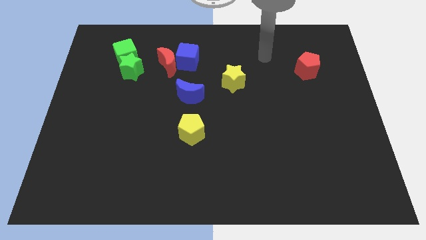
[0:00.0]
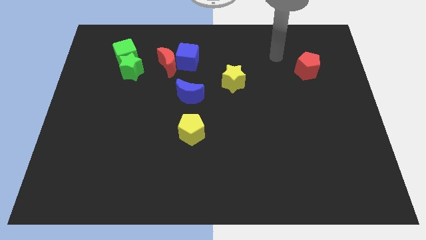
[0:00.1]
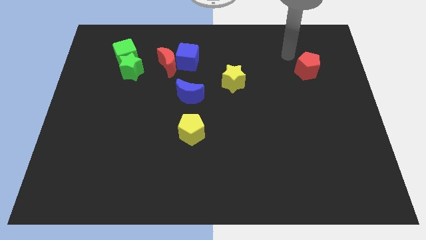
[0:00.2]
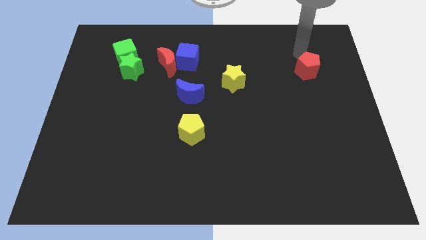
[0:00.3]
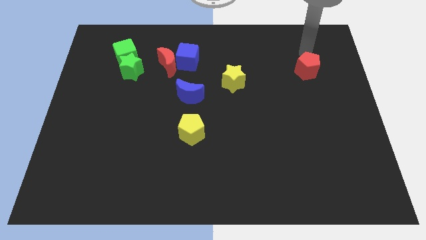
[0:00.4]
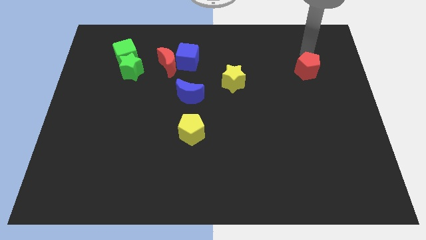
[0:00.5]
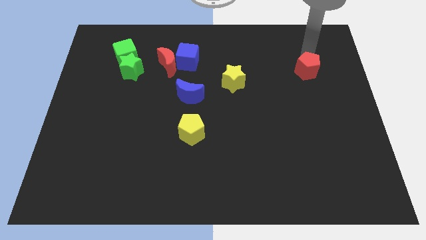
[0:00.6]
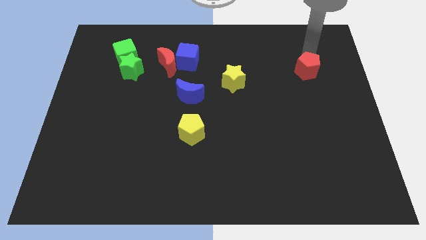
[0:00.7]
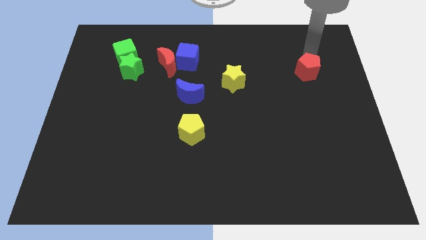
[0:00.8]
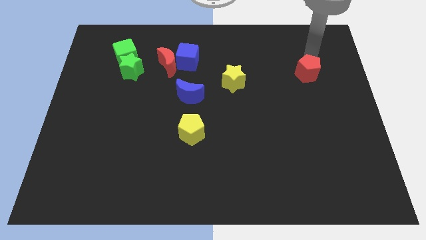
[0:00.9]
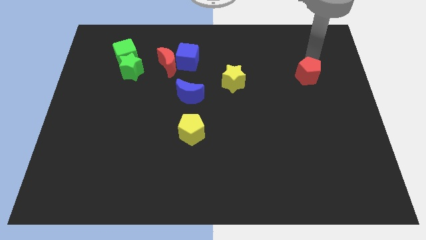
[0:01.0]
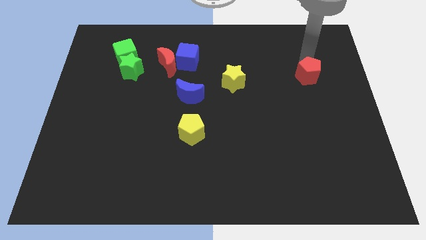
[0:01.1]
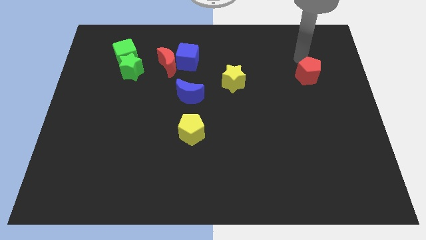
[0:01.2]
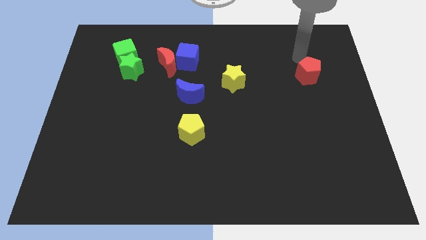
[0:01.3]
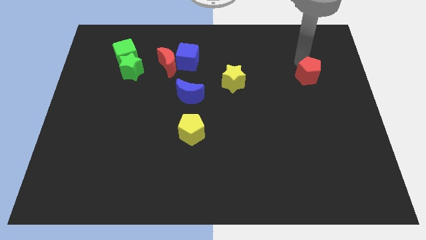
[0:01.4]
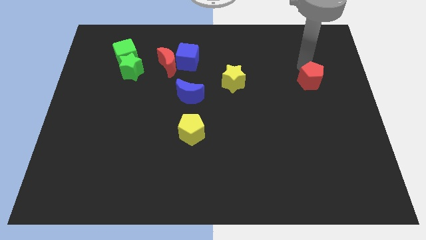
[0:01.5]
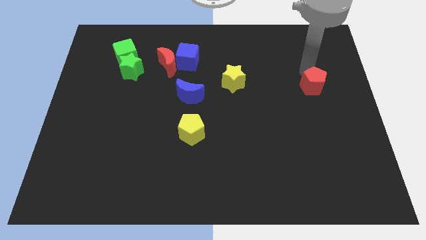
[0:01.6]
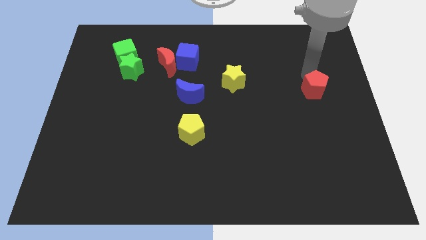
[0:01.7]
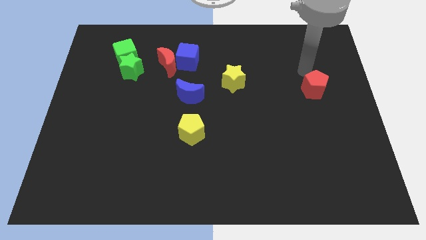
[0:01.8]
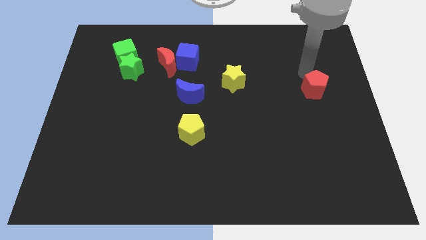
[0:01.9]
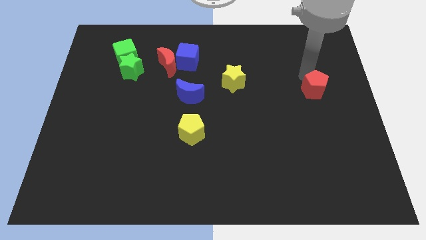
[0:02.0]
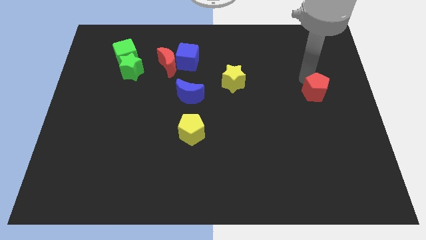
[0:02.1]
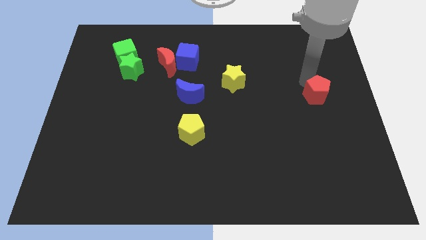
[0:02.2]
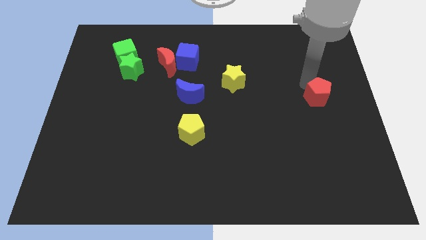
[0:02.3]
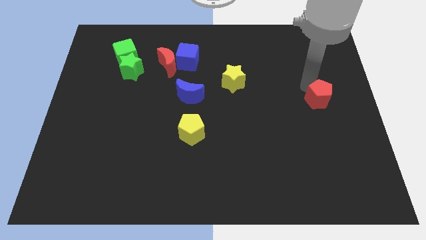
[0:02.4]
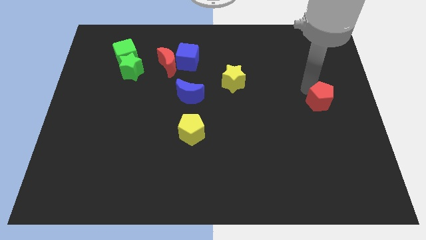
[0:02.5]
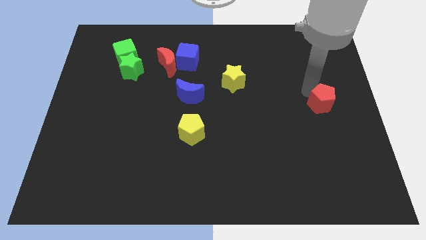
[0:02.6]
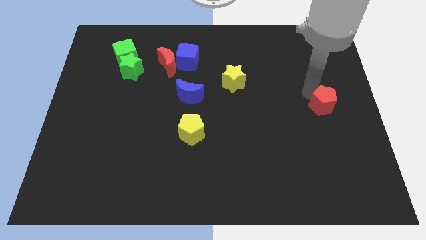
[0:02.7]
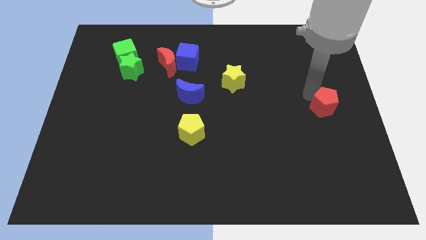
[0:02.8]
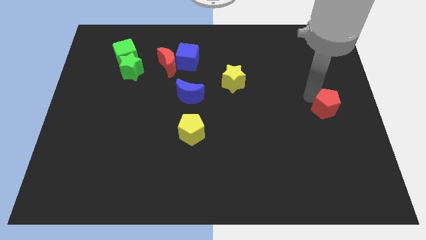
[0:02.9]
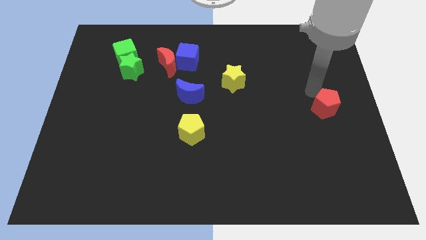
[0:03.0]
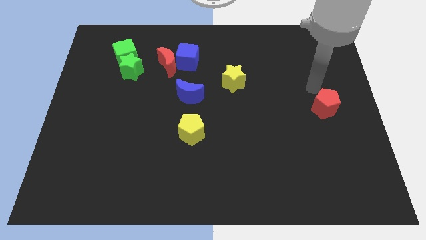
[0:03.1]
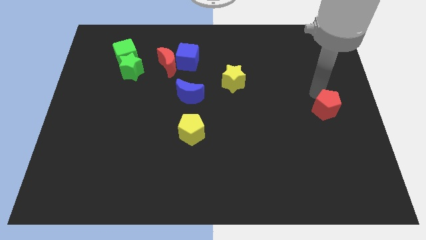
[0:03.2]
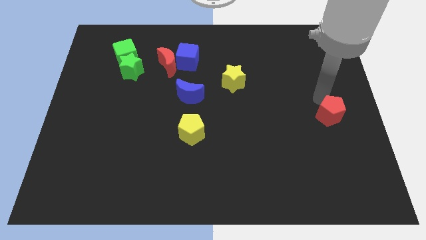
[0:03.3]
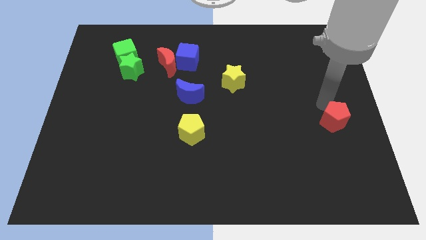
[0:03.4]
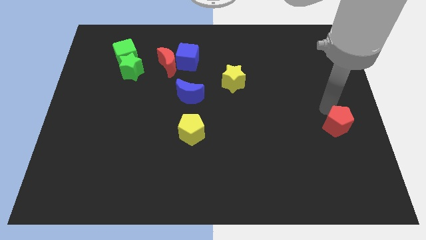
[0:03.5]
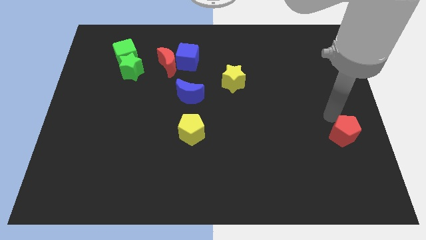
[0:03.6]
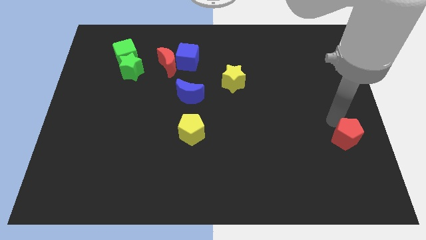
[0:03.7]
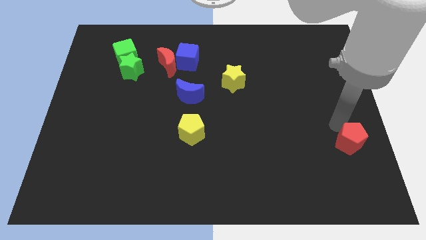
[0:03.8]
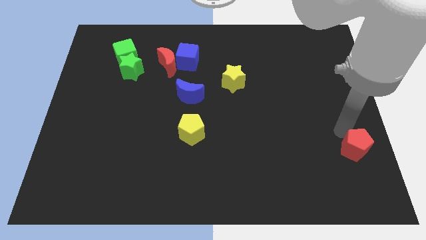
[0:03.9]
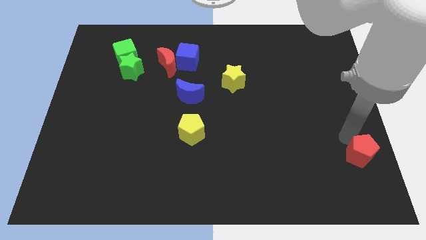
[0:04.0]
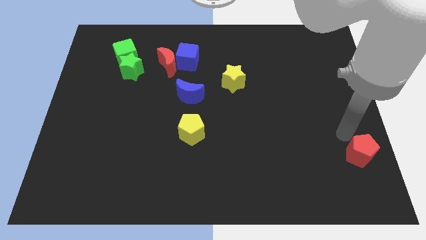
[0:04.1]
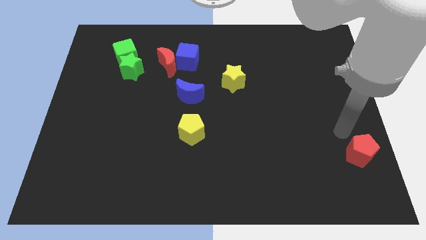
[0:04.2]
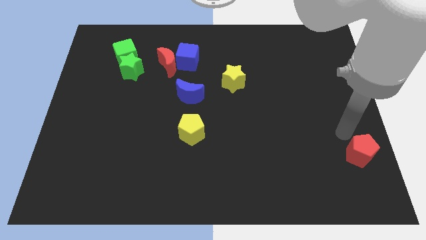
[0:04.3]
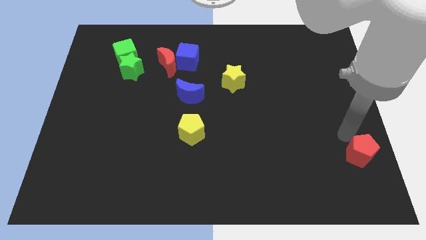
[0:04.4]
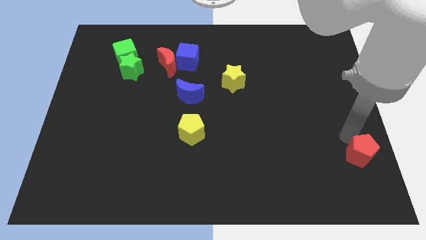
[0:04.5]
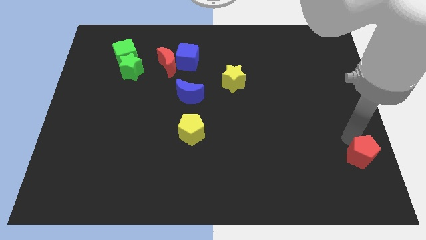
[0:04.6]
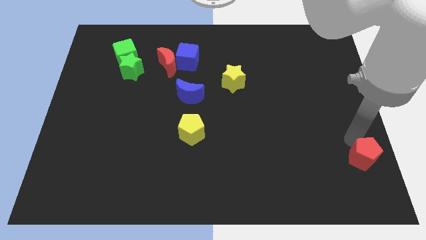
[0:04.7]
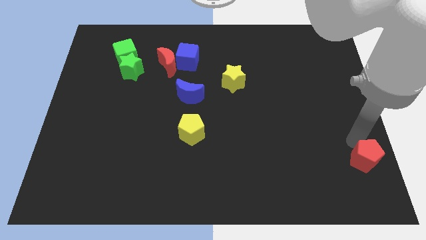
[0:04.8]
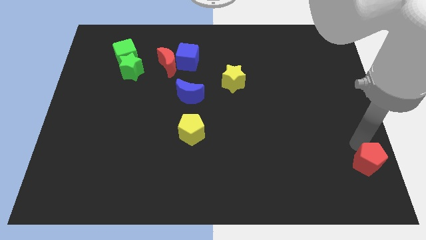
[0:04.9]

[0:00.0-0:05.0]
put the red pentagon to the bottom right of the board

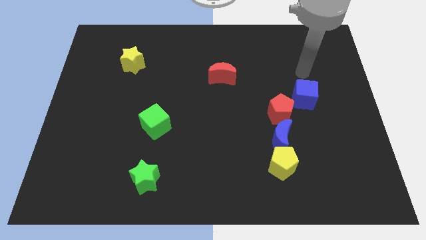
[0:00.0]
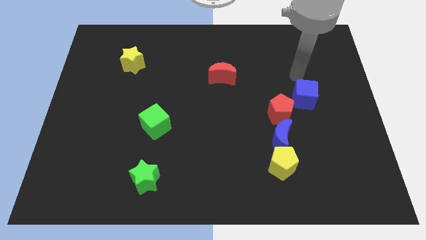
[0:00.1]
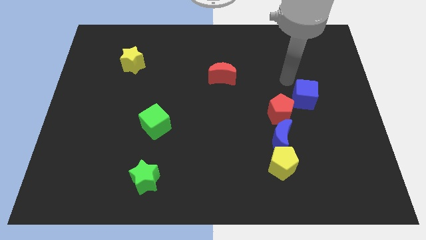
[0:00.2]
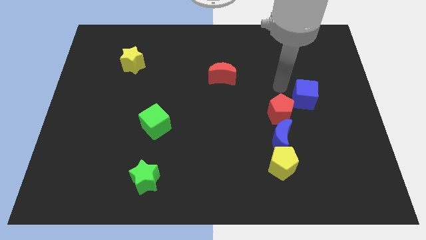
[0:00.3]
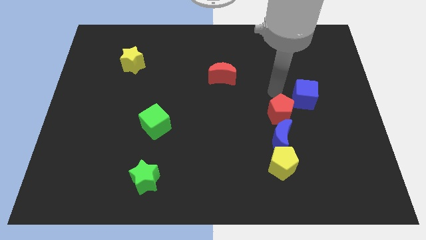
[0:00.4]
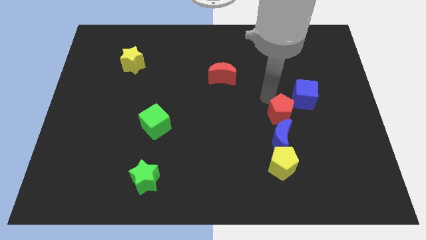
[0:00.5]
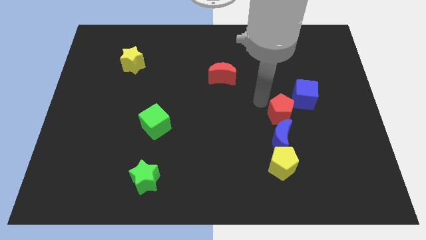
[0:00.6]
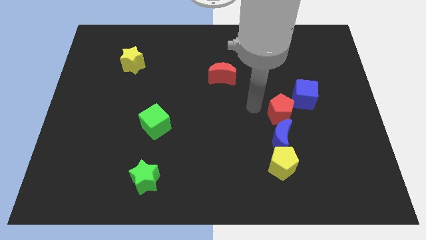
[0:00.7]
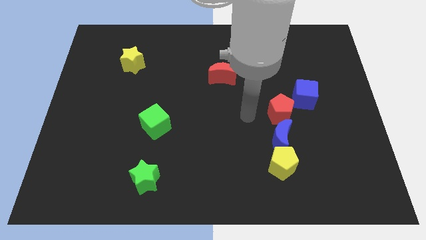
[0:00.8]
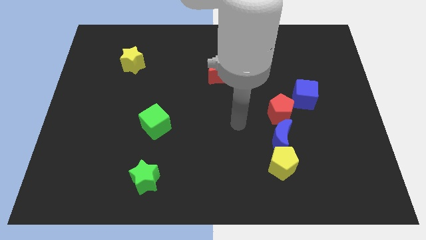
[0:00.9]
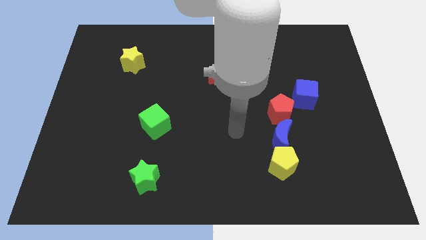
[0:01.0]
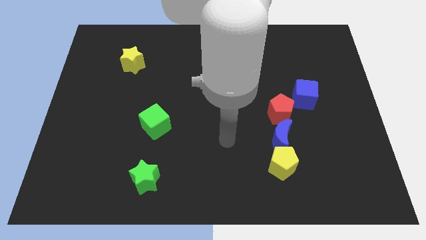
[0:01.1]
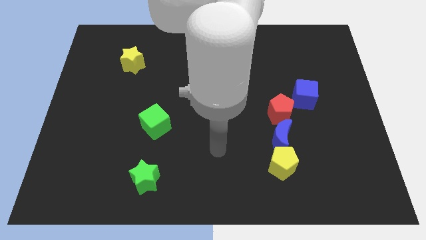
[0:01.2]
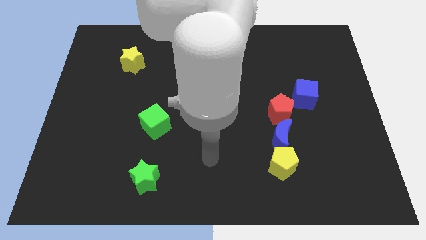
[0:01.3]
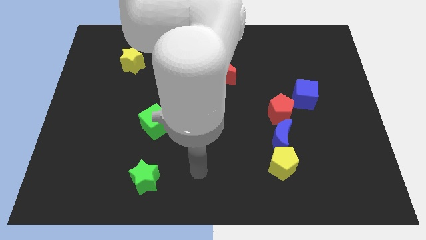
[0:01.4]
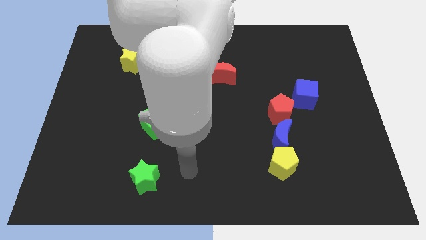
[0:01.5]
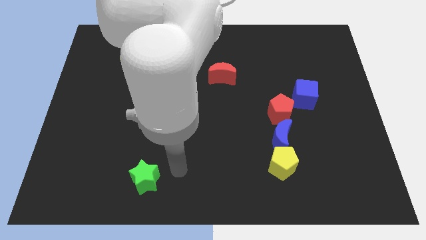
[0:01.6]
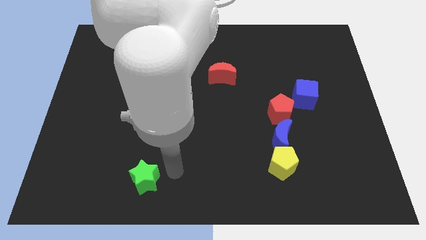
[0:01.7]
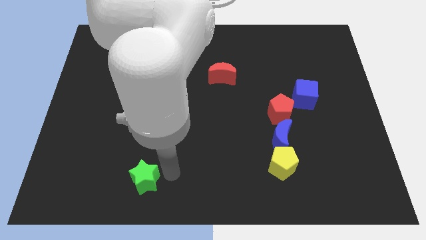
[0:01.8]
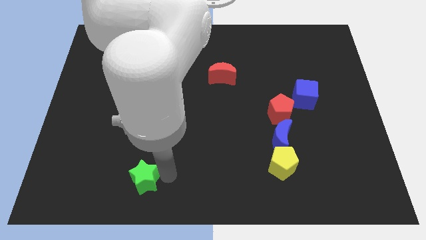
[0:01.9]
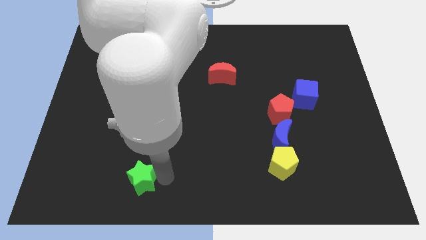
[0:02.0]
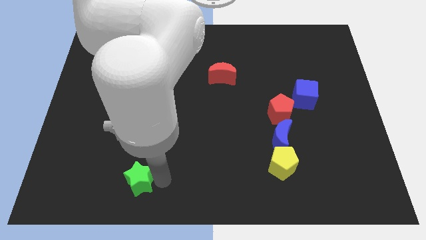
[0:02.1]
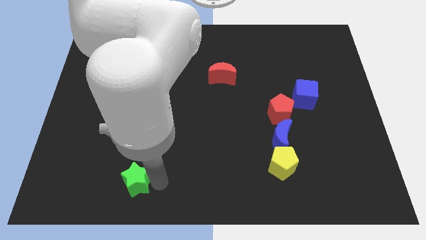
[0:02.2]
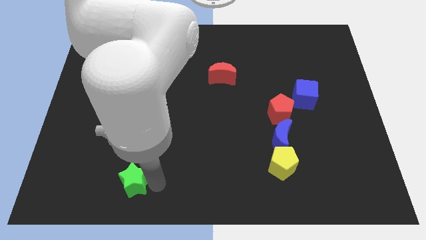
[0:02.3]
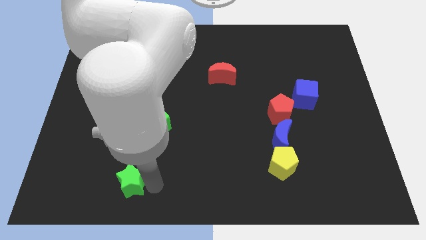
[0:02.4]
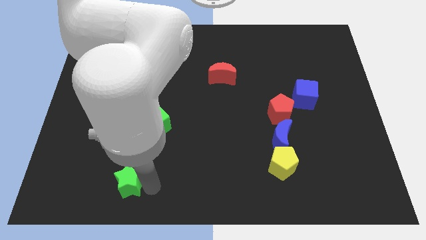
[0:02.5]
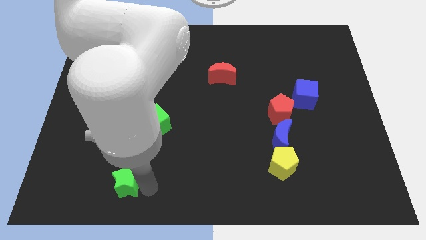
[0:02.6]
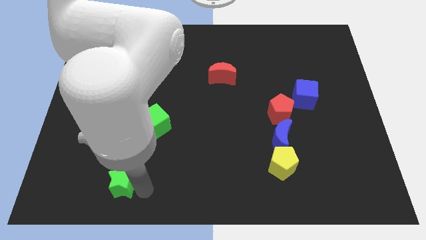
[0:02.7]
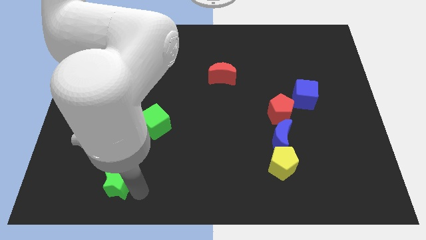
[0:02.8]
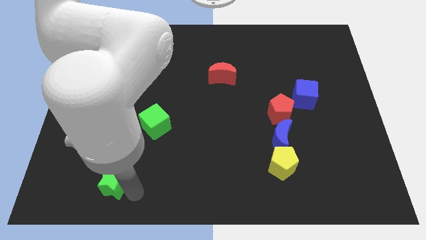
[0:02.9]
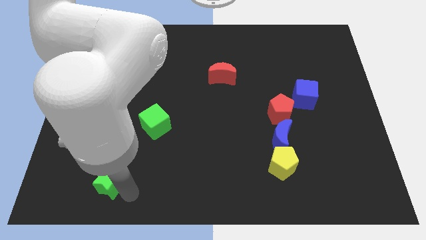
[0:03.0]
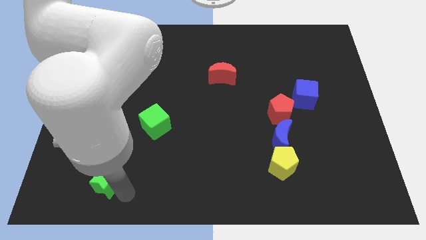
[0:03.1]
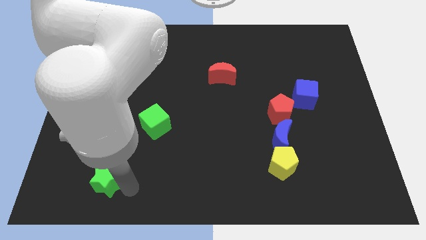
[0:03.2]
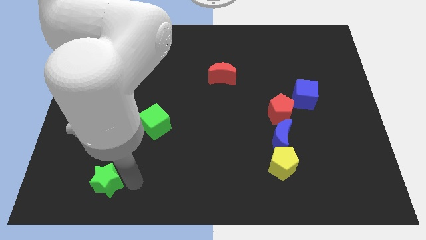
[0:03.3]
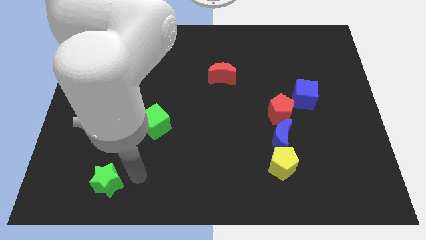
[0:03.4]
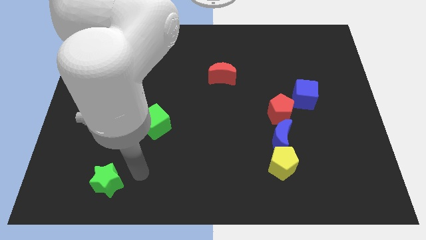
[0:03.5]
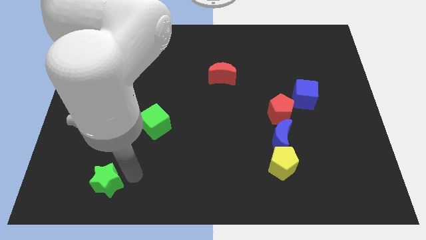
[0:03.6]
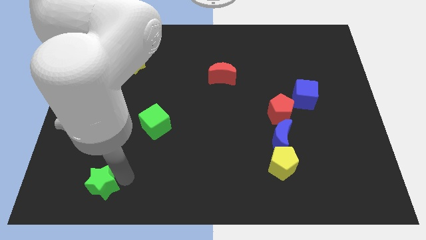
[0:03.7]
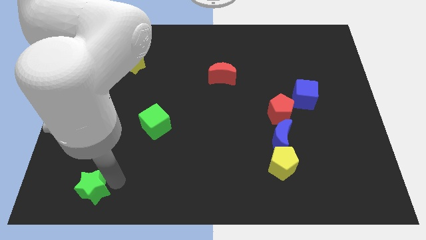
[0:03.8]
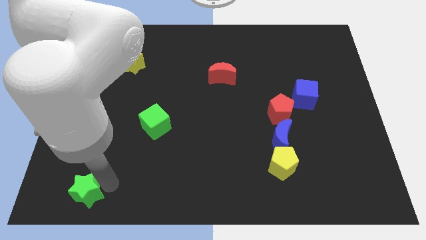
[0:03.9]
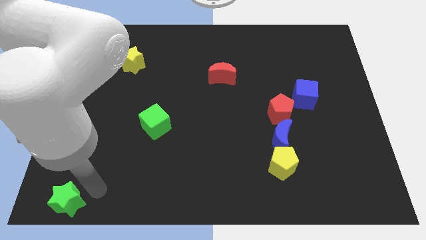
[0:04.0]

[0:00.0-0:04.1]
push the green star to the bottom left of the board
